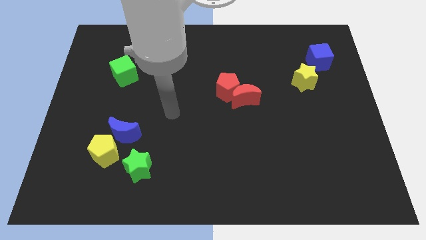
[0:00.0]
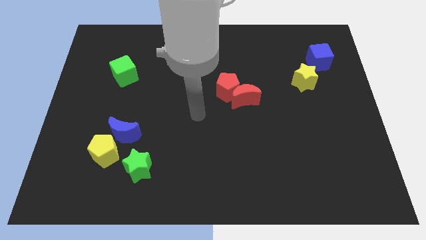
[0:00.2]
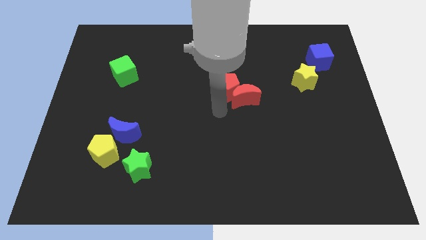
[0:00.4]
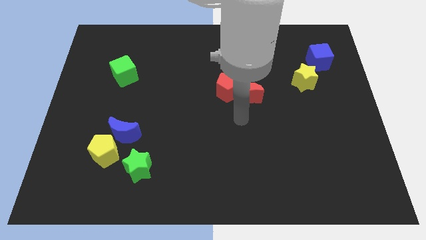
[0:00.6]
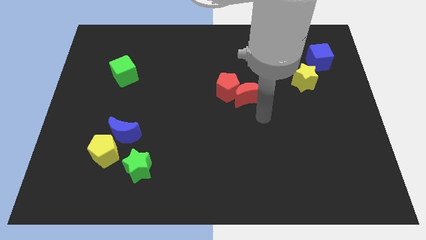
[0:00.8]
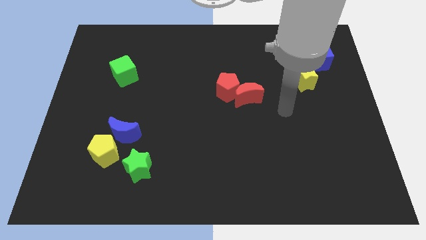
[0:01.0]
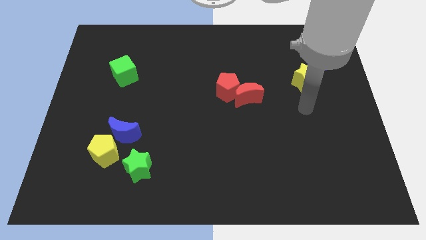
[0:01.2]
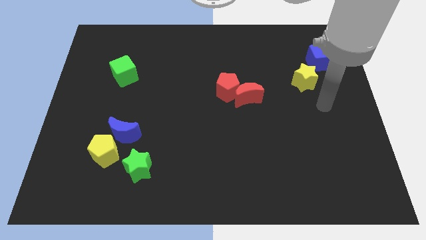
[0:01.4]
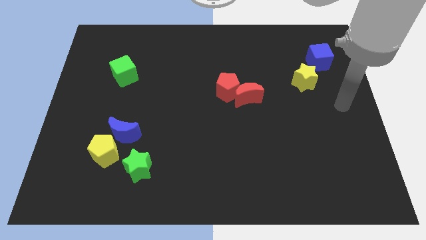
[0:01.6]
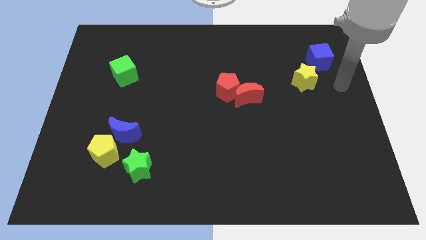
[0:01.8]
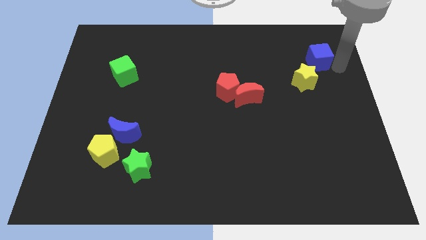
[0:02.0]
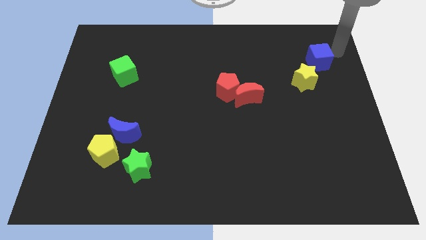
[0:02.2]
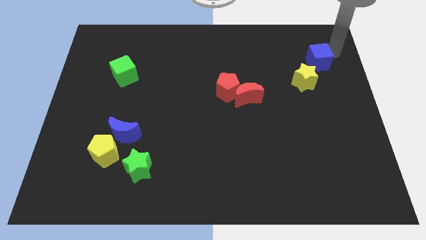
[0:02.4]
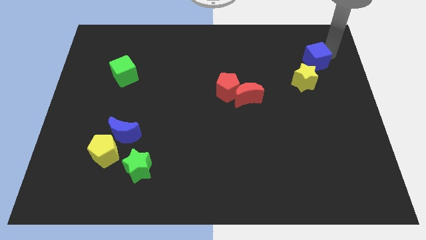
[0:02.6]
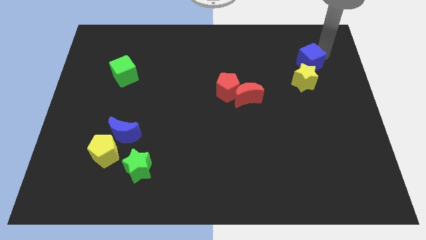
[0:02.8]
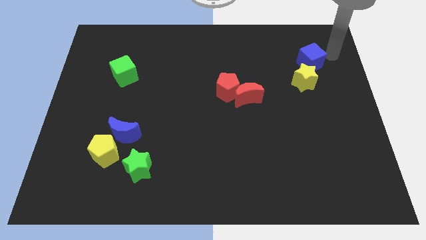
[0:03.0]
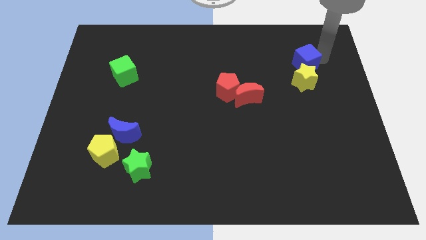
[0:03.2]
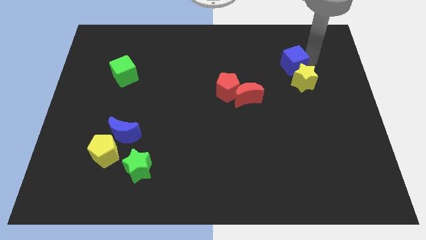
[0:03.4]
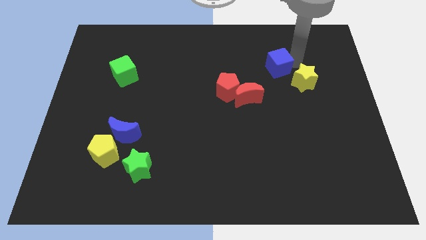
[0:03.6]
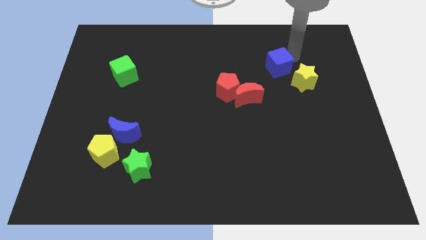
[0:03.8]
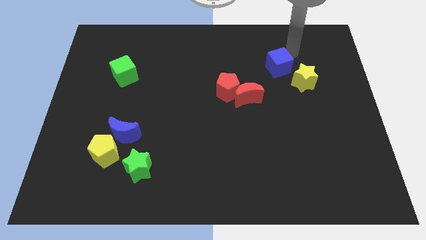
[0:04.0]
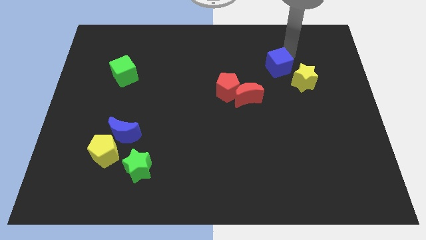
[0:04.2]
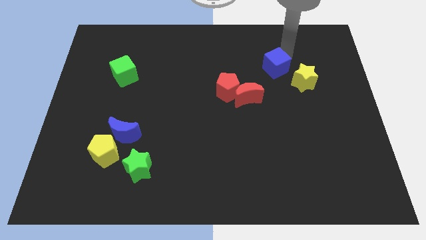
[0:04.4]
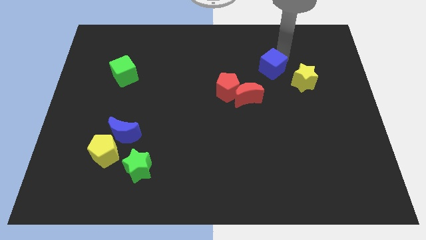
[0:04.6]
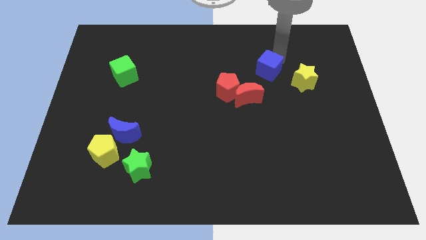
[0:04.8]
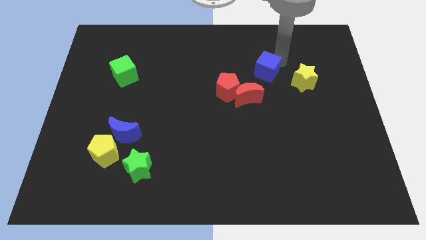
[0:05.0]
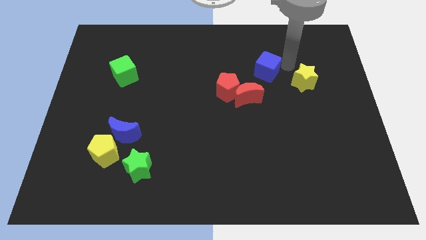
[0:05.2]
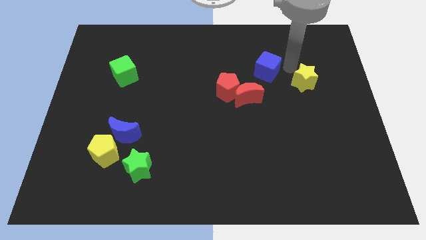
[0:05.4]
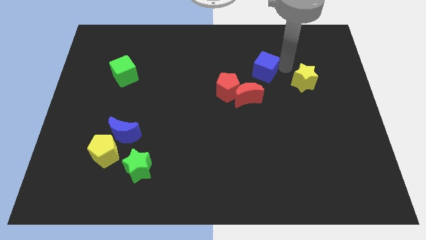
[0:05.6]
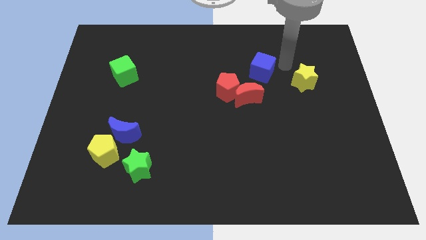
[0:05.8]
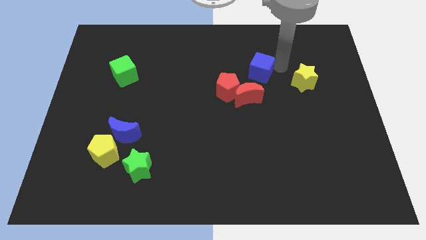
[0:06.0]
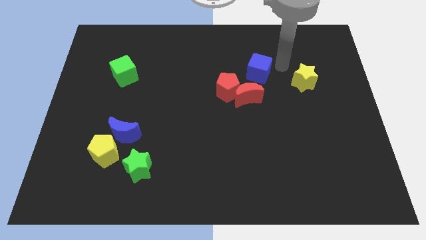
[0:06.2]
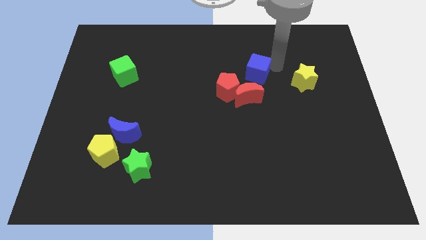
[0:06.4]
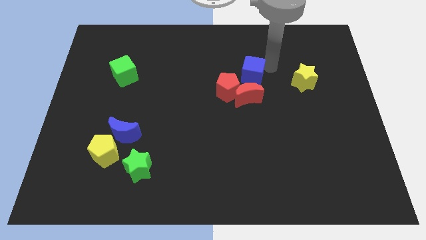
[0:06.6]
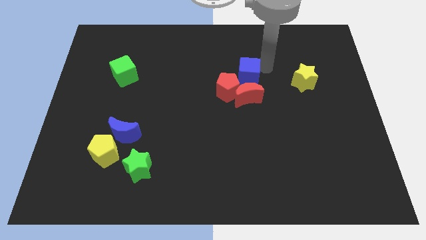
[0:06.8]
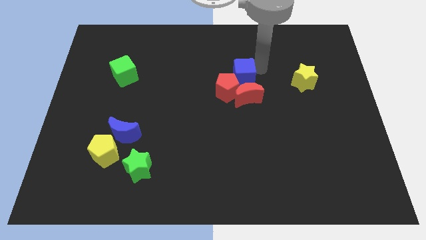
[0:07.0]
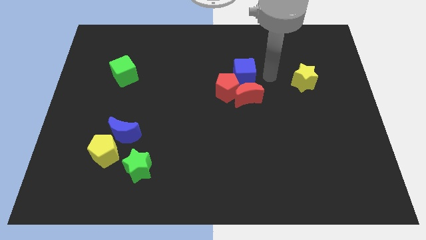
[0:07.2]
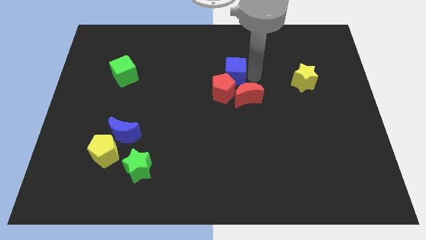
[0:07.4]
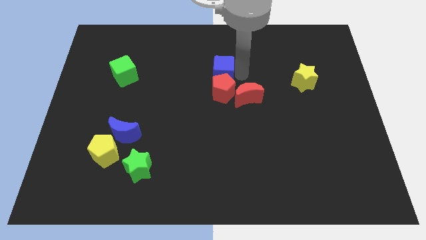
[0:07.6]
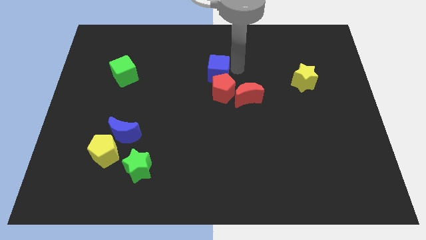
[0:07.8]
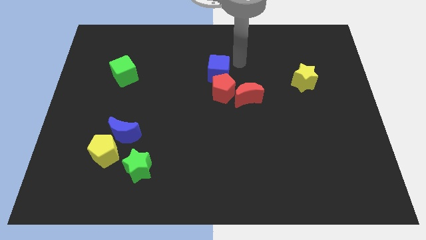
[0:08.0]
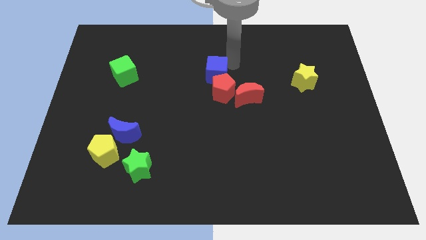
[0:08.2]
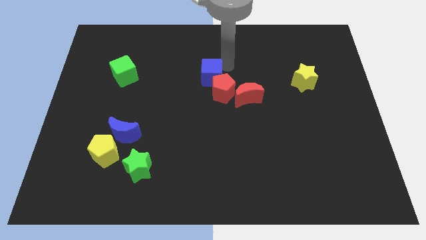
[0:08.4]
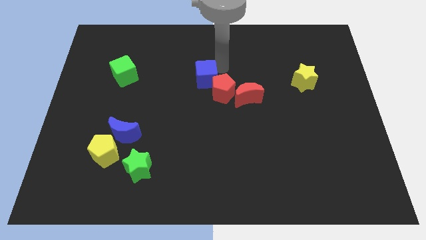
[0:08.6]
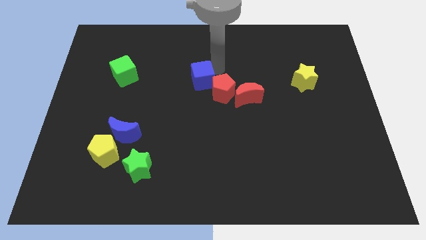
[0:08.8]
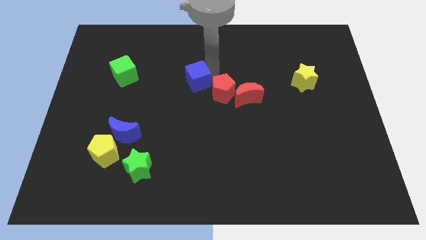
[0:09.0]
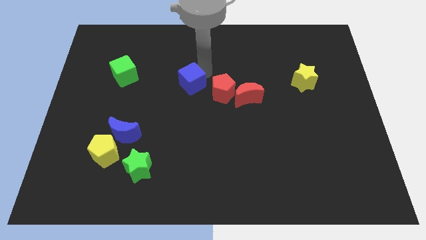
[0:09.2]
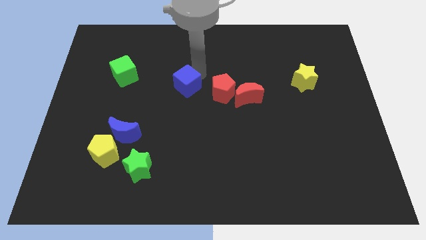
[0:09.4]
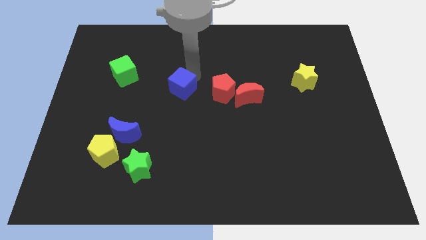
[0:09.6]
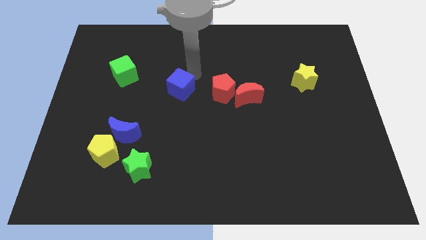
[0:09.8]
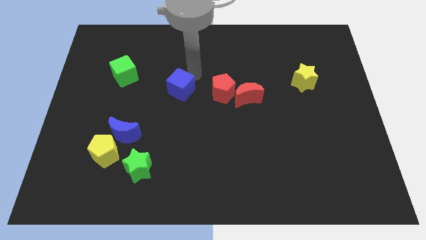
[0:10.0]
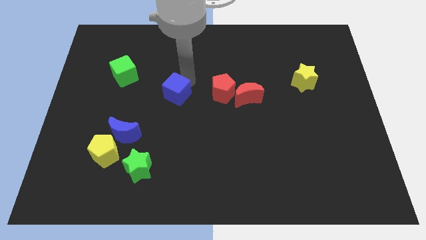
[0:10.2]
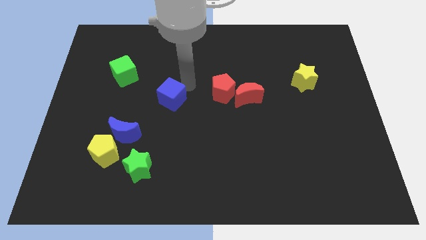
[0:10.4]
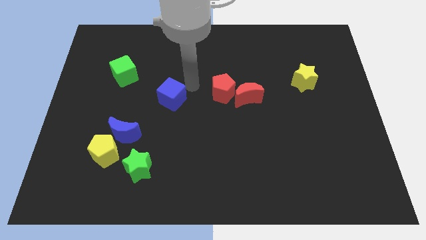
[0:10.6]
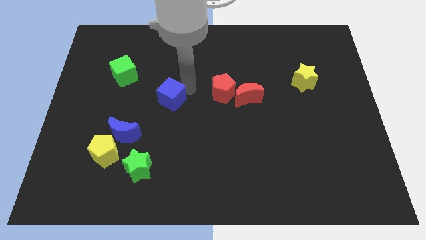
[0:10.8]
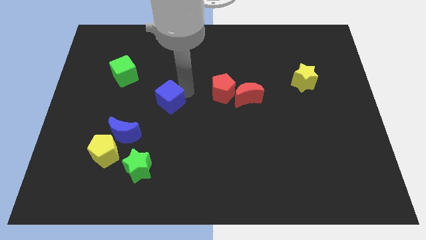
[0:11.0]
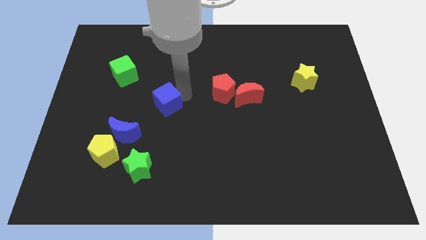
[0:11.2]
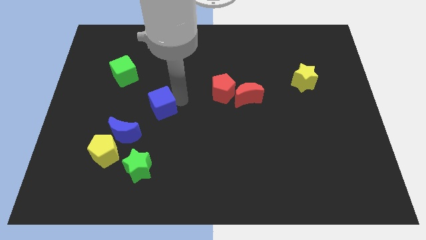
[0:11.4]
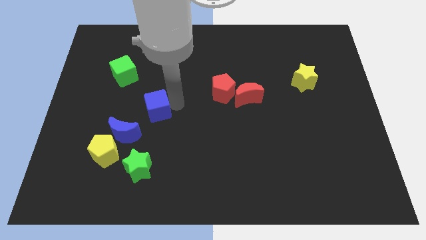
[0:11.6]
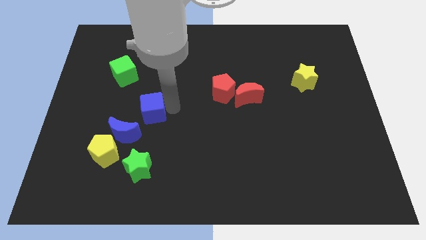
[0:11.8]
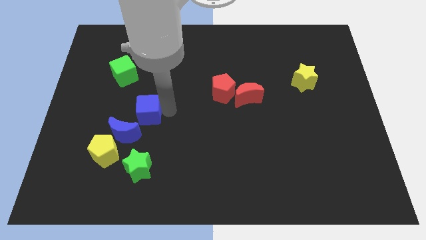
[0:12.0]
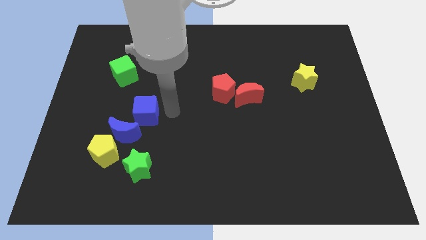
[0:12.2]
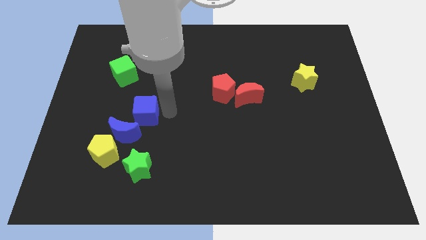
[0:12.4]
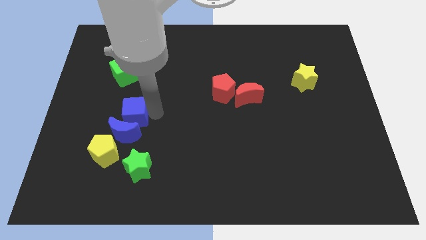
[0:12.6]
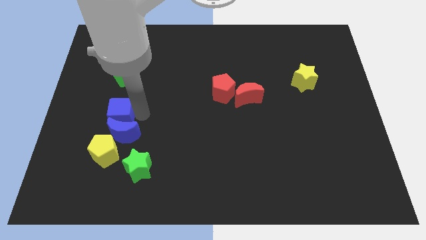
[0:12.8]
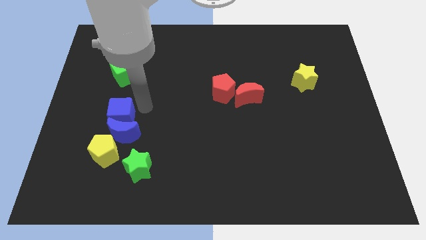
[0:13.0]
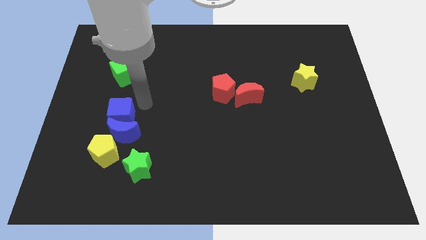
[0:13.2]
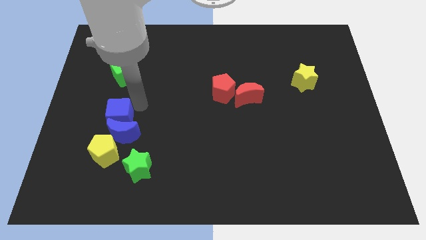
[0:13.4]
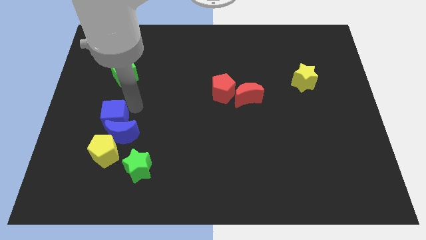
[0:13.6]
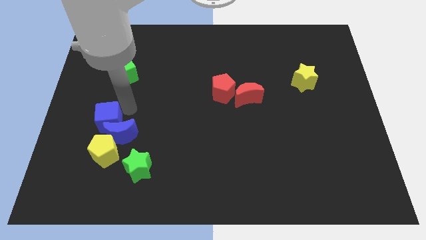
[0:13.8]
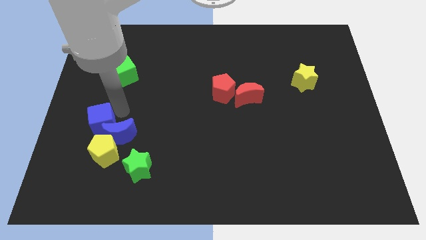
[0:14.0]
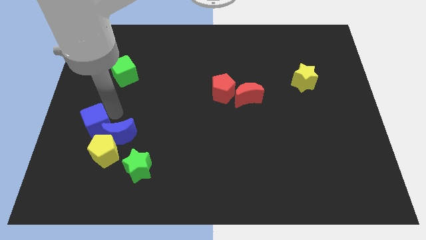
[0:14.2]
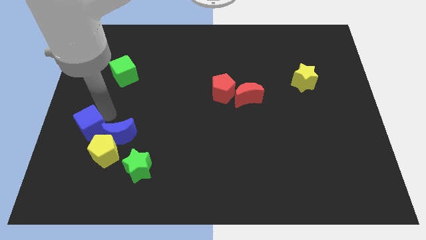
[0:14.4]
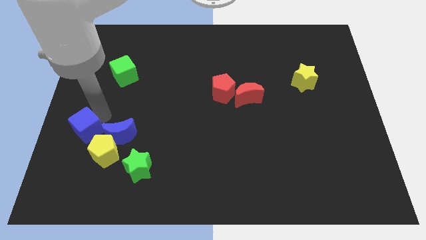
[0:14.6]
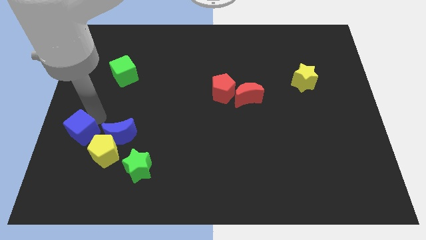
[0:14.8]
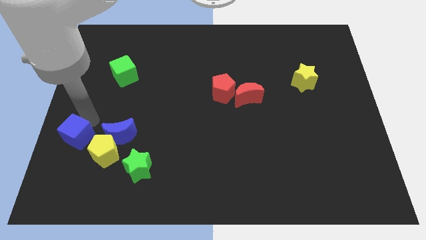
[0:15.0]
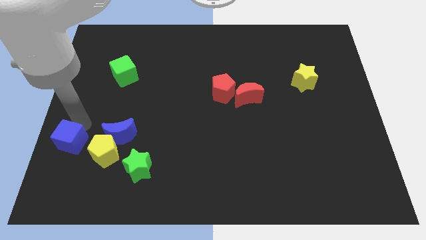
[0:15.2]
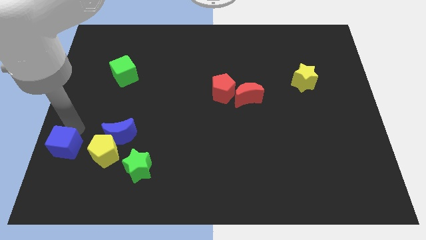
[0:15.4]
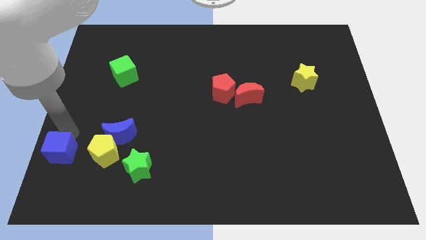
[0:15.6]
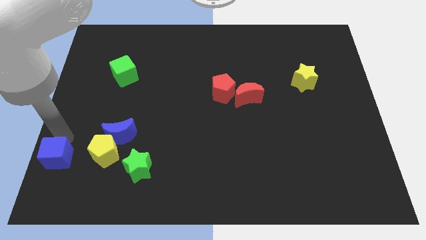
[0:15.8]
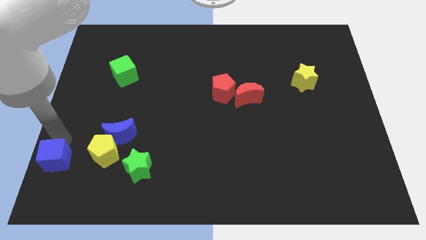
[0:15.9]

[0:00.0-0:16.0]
put the blue cube to the lower left corner
